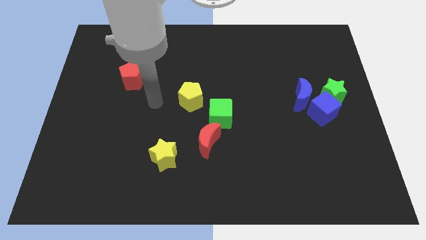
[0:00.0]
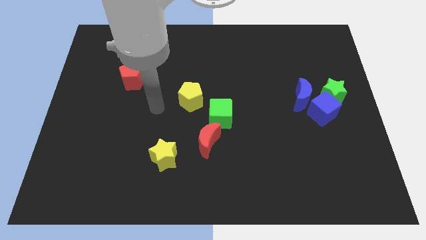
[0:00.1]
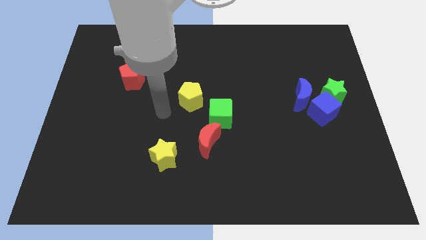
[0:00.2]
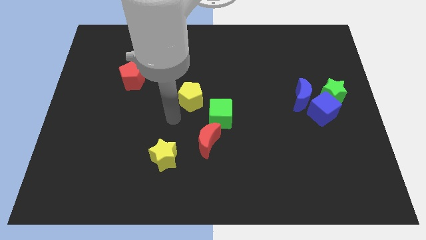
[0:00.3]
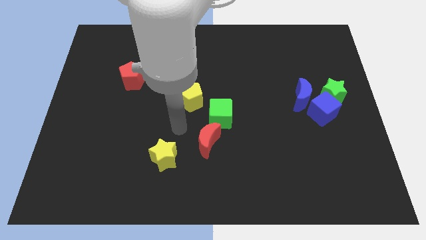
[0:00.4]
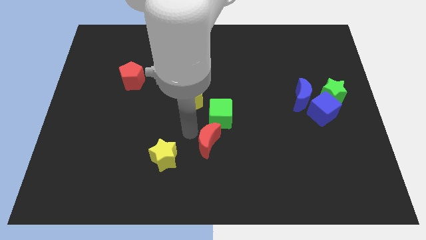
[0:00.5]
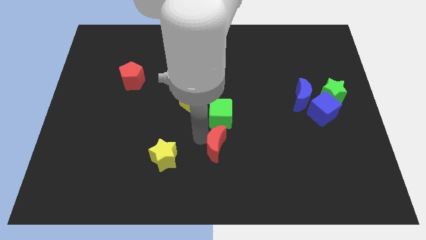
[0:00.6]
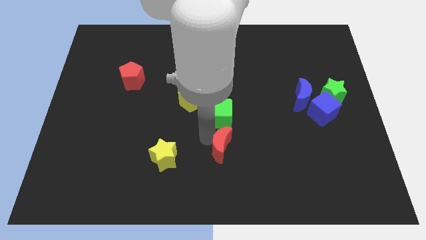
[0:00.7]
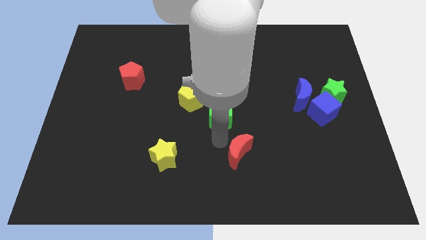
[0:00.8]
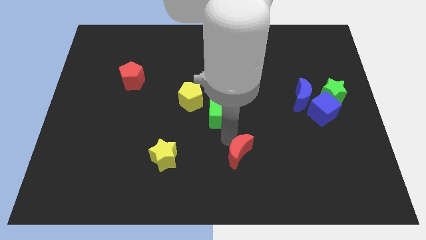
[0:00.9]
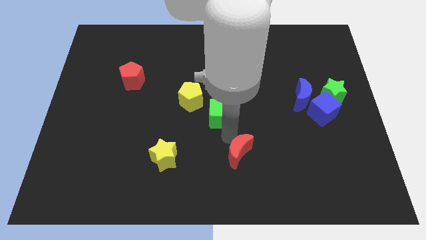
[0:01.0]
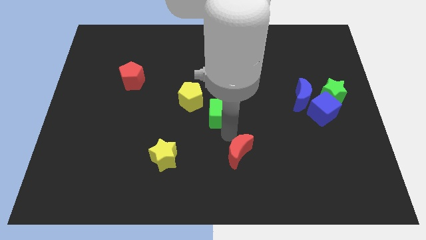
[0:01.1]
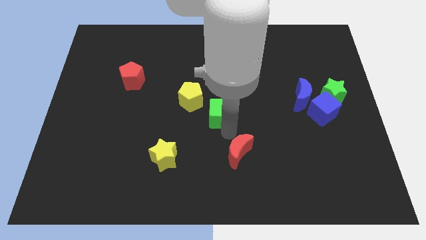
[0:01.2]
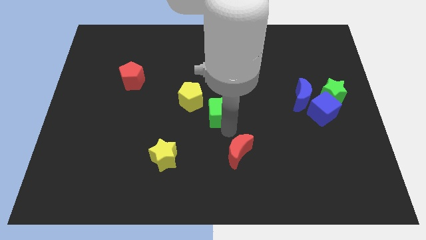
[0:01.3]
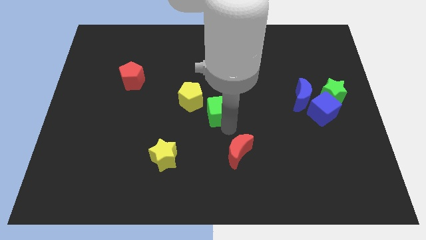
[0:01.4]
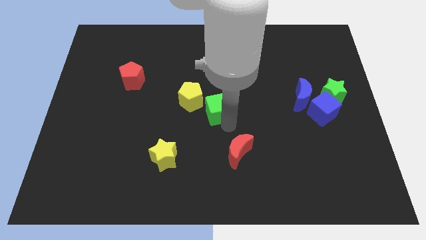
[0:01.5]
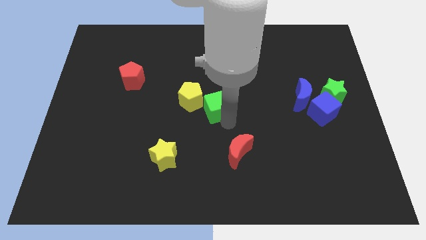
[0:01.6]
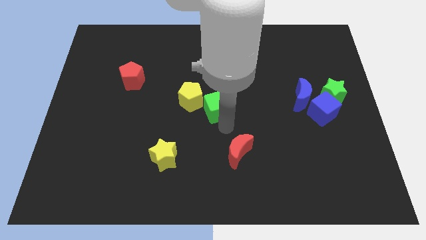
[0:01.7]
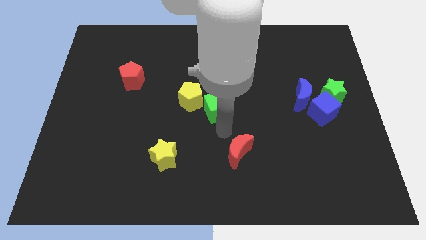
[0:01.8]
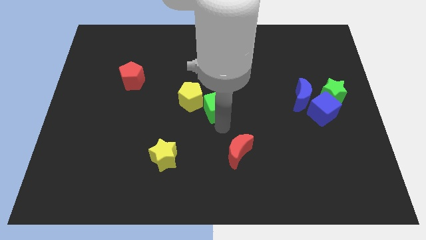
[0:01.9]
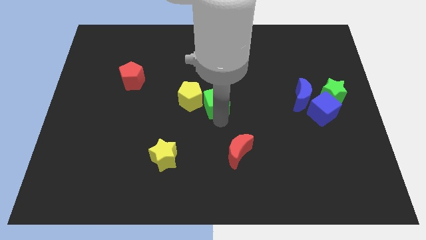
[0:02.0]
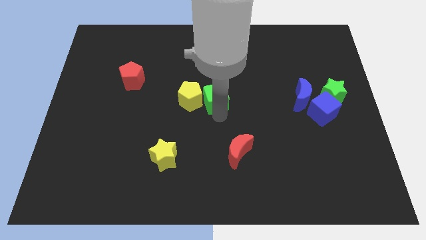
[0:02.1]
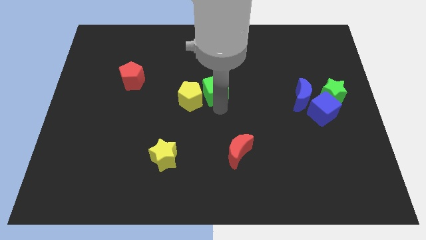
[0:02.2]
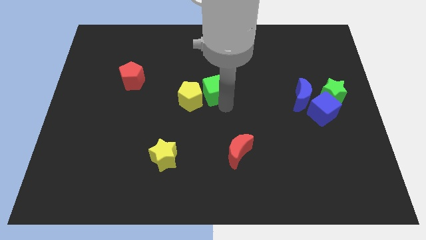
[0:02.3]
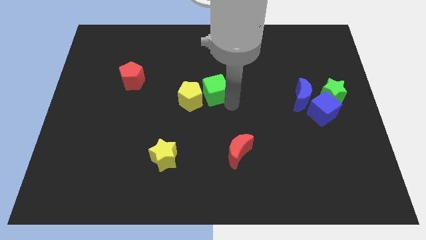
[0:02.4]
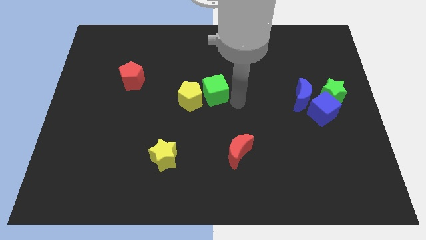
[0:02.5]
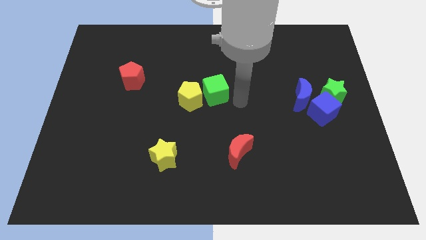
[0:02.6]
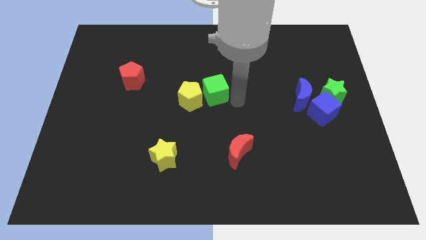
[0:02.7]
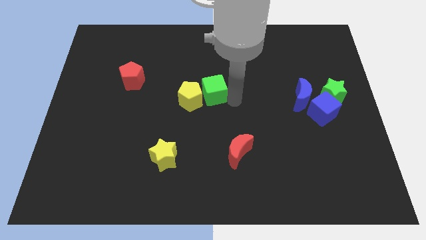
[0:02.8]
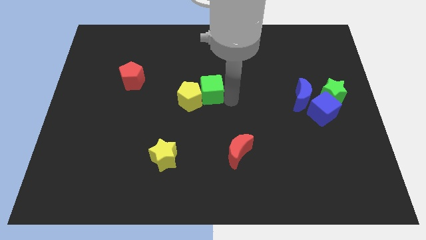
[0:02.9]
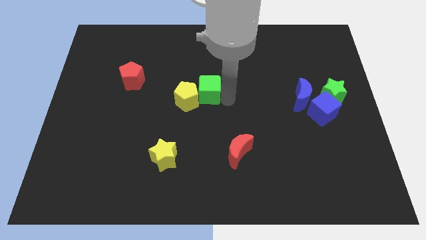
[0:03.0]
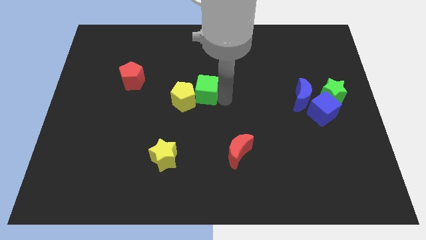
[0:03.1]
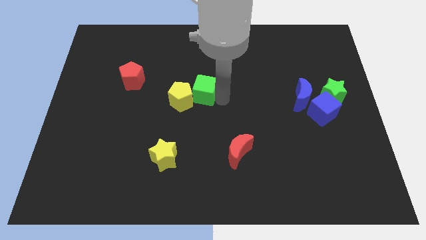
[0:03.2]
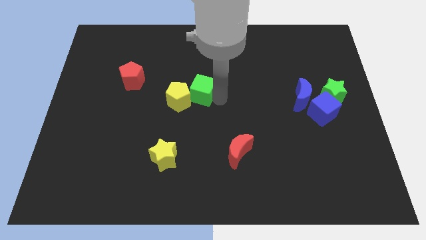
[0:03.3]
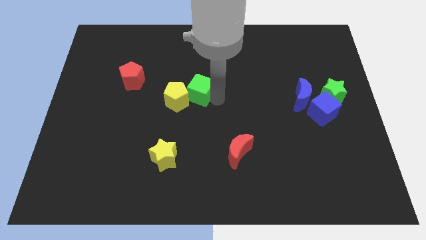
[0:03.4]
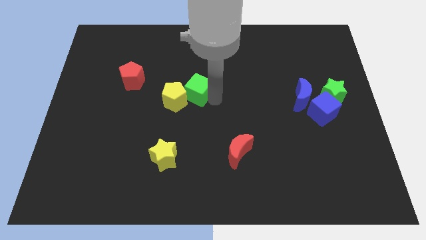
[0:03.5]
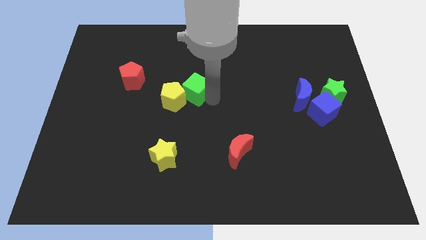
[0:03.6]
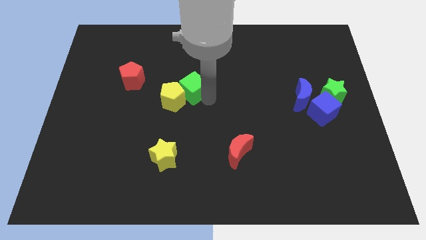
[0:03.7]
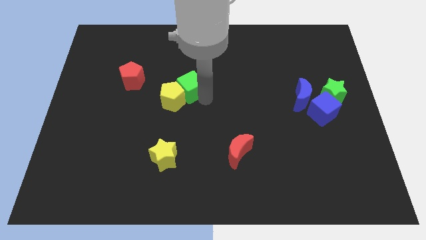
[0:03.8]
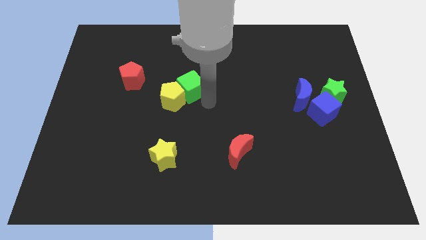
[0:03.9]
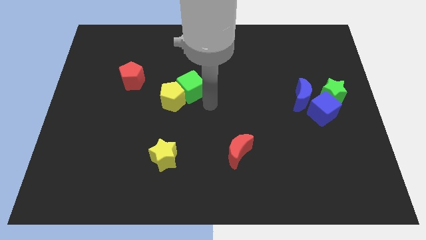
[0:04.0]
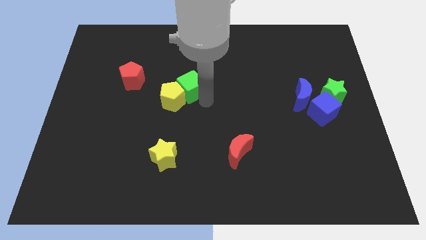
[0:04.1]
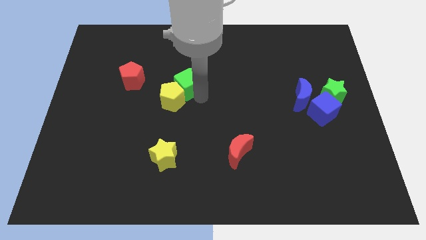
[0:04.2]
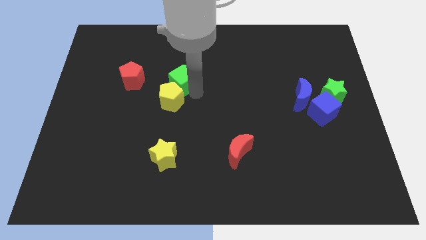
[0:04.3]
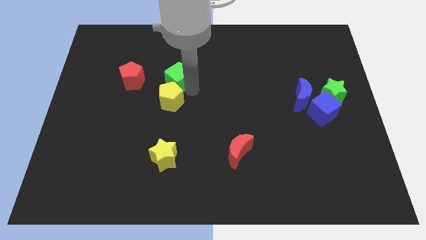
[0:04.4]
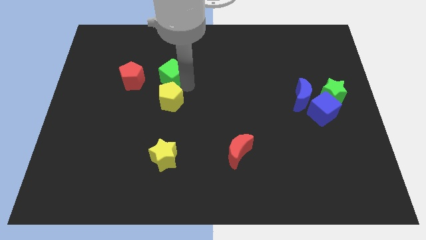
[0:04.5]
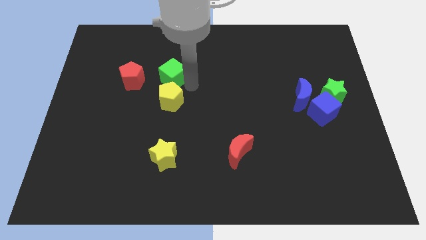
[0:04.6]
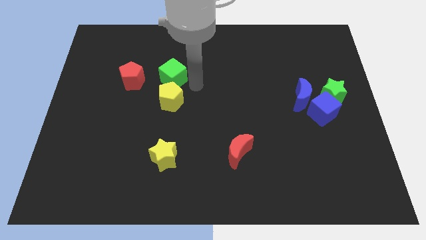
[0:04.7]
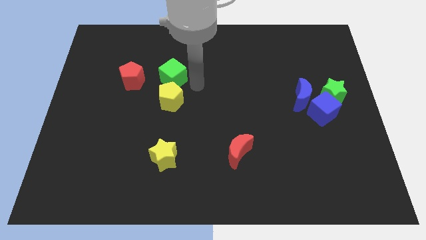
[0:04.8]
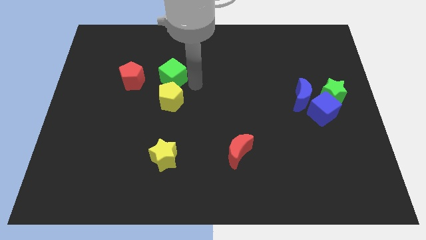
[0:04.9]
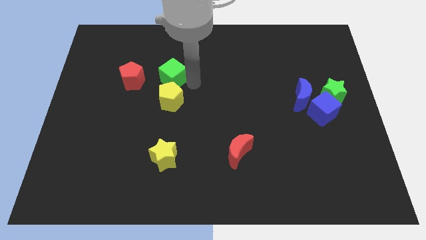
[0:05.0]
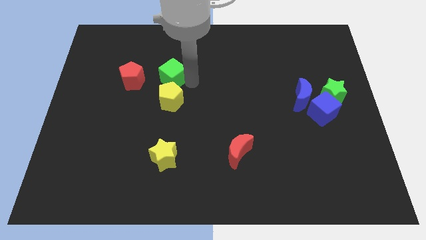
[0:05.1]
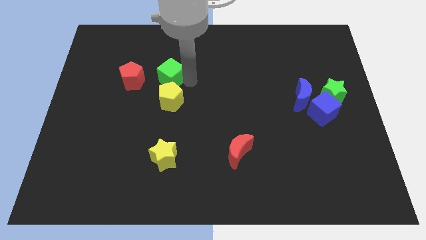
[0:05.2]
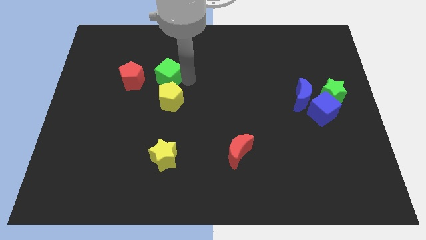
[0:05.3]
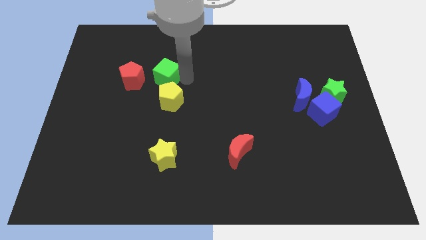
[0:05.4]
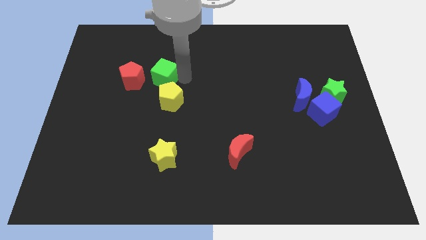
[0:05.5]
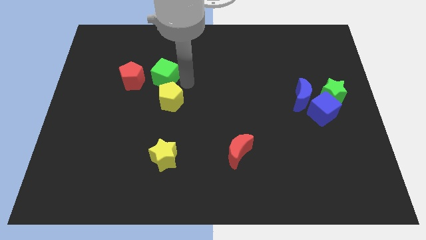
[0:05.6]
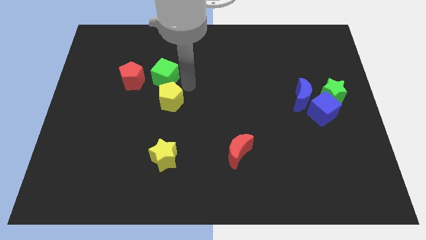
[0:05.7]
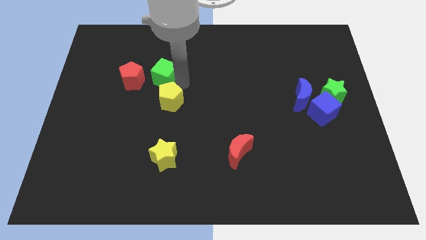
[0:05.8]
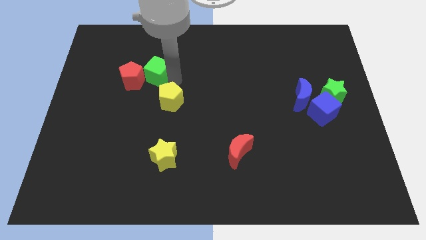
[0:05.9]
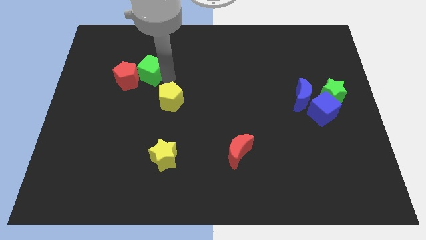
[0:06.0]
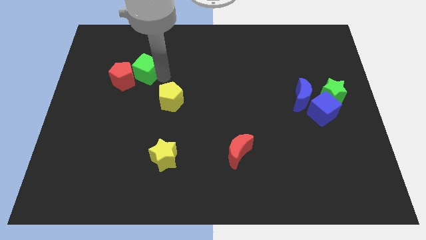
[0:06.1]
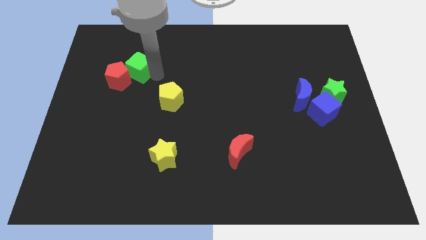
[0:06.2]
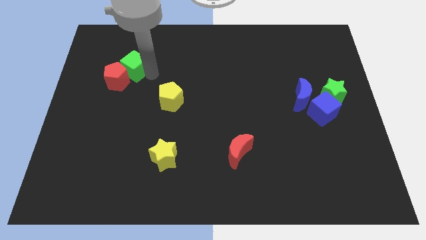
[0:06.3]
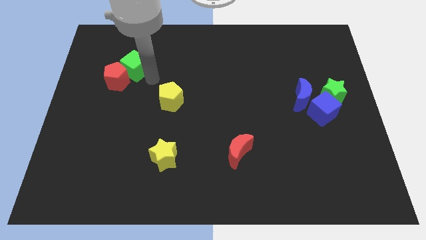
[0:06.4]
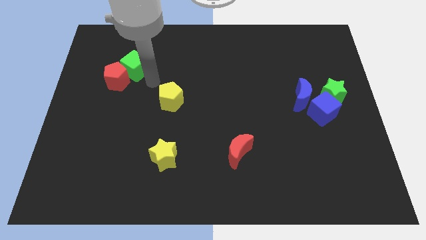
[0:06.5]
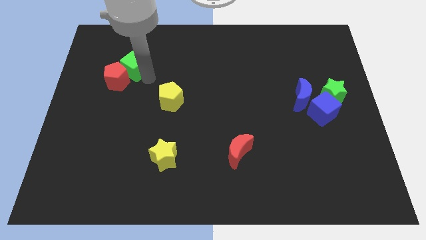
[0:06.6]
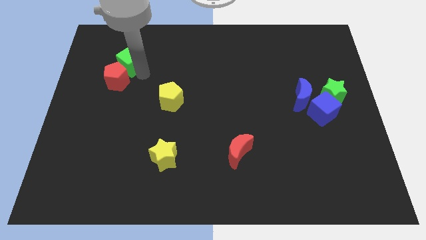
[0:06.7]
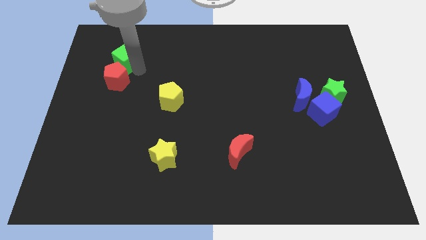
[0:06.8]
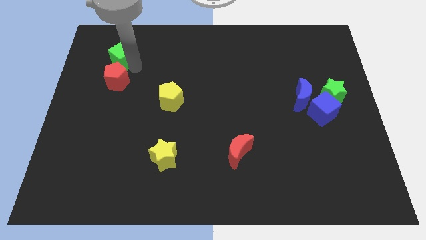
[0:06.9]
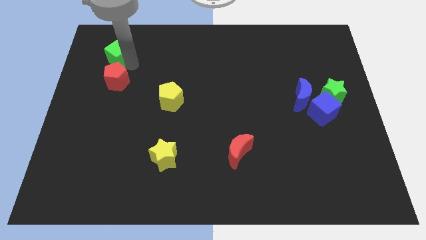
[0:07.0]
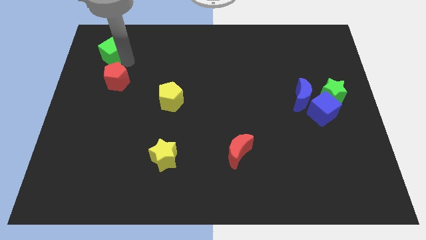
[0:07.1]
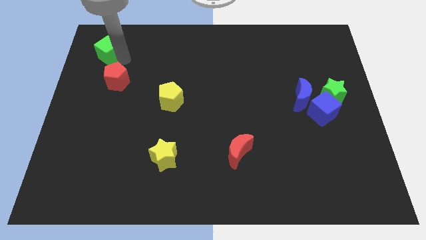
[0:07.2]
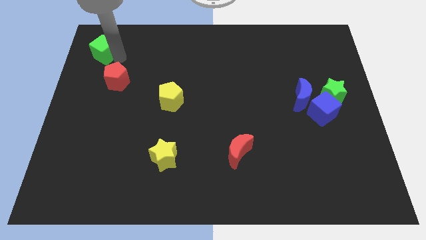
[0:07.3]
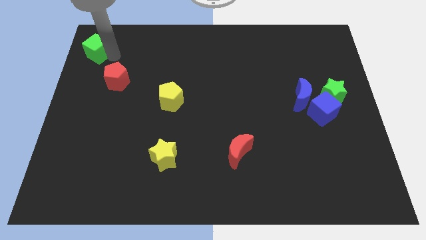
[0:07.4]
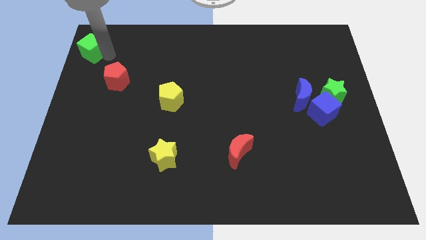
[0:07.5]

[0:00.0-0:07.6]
push the green cube to the upper left corner
